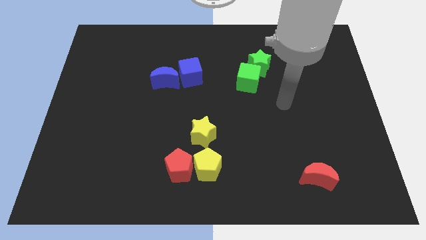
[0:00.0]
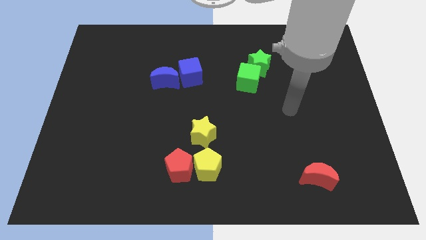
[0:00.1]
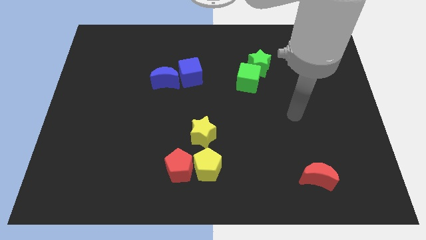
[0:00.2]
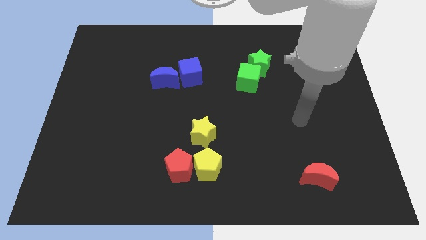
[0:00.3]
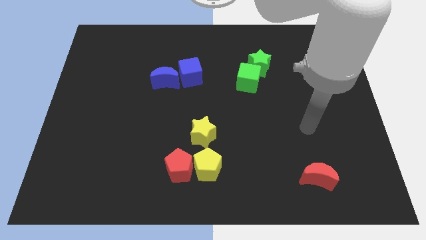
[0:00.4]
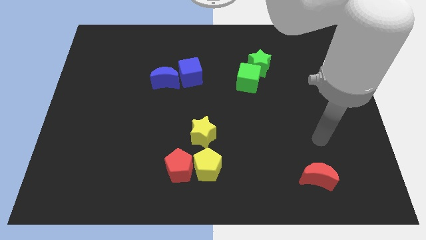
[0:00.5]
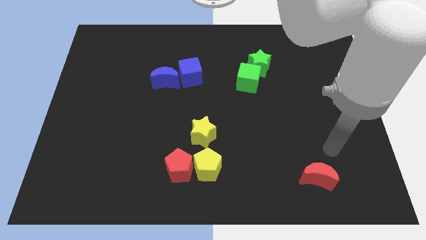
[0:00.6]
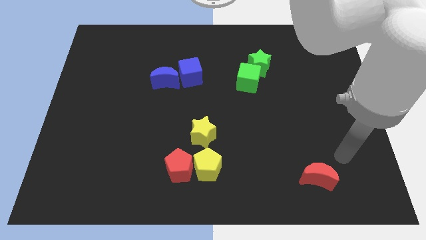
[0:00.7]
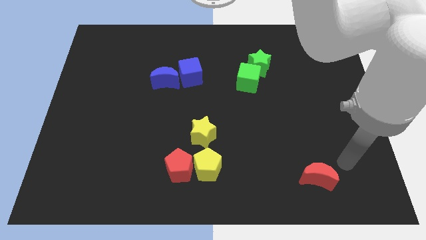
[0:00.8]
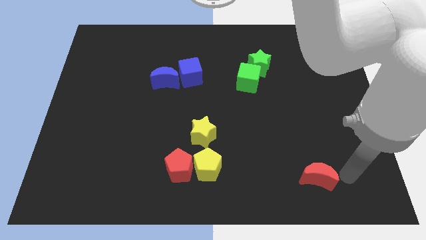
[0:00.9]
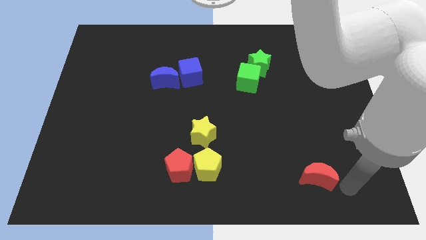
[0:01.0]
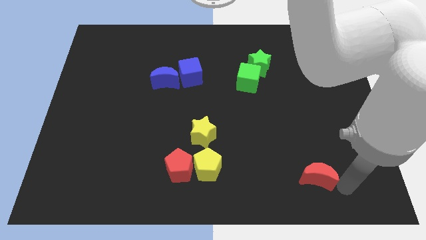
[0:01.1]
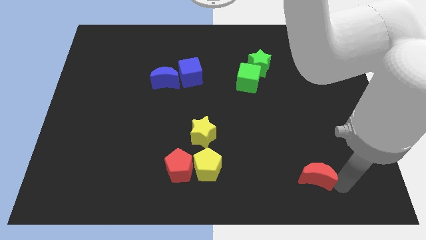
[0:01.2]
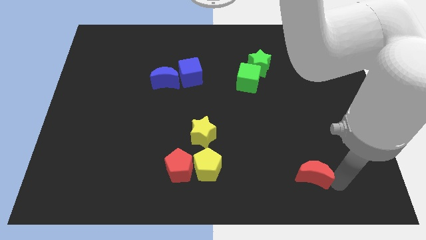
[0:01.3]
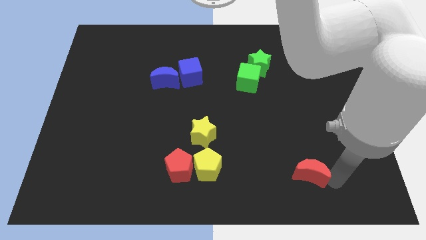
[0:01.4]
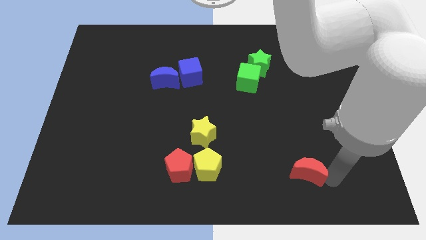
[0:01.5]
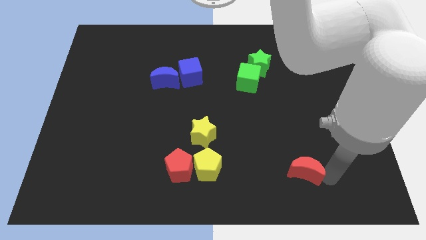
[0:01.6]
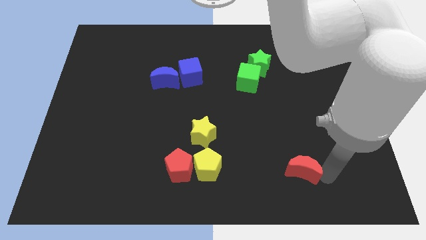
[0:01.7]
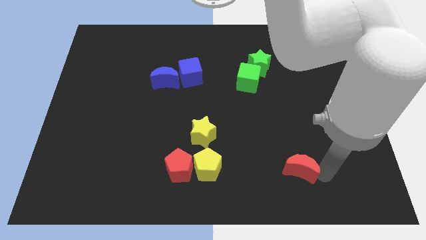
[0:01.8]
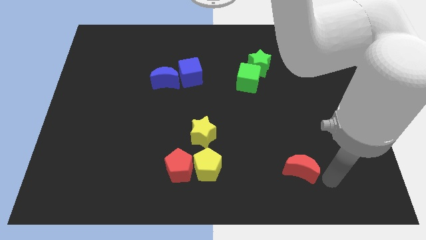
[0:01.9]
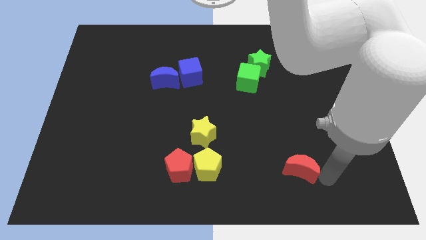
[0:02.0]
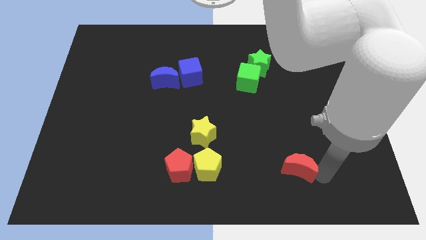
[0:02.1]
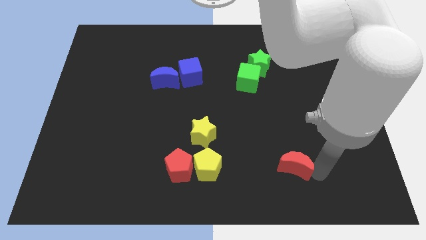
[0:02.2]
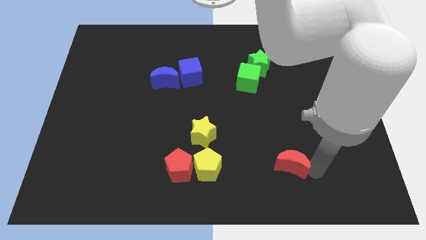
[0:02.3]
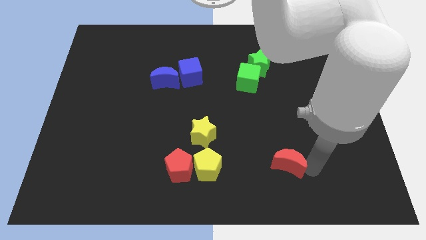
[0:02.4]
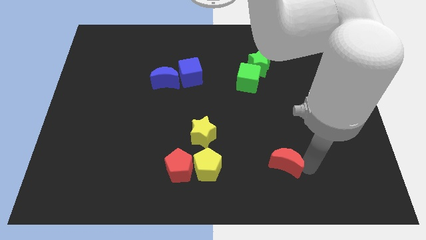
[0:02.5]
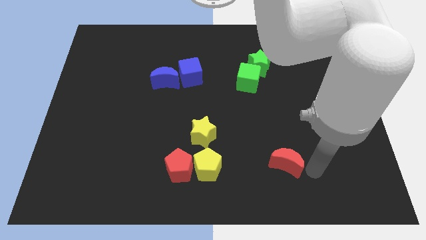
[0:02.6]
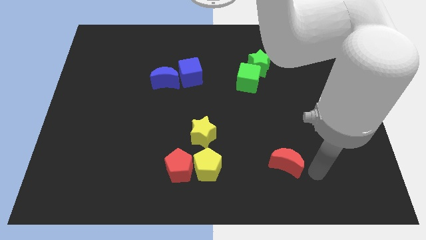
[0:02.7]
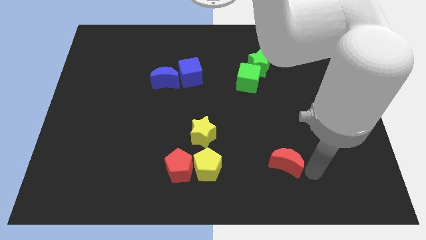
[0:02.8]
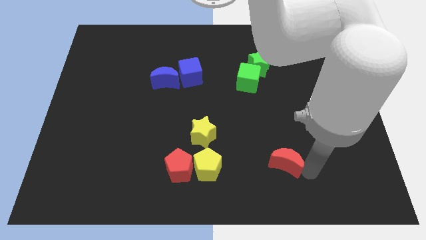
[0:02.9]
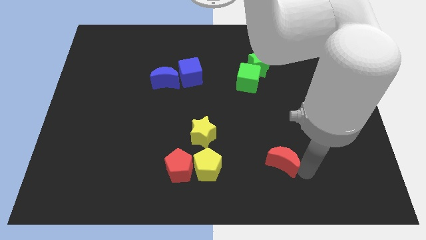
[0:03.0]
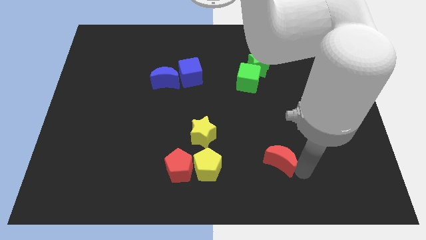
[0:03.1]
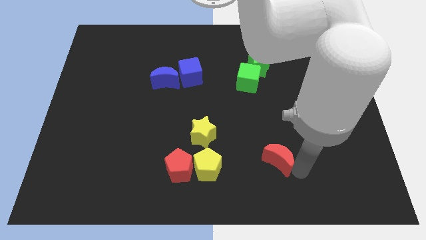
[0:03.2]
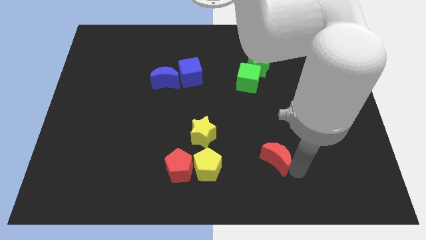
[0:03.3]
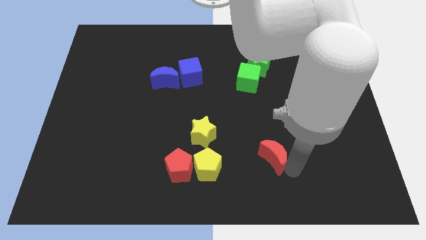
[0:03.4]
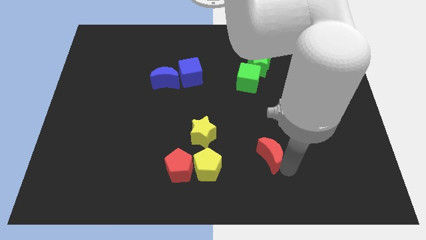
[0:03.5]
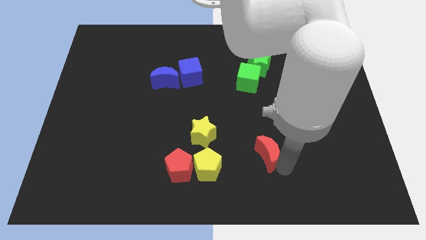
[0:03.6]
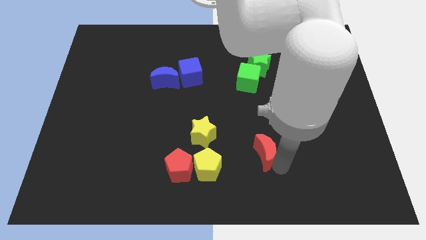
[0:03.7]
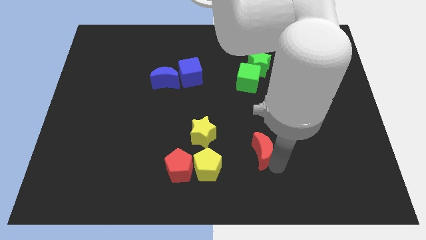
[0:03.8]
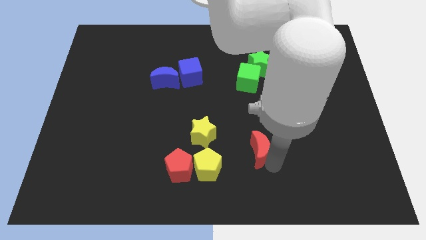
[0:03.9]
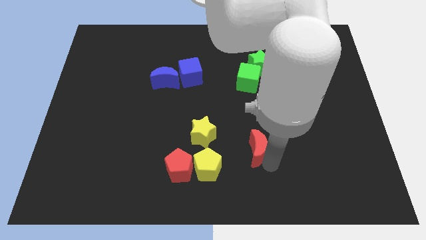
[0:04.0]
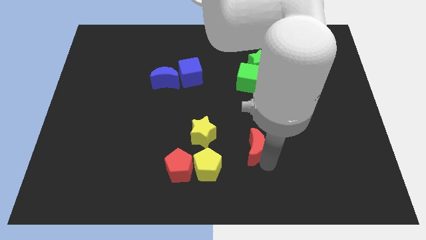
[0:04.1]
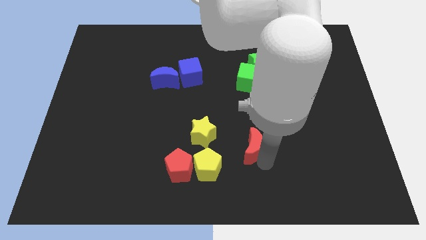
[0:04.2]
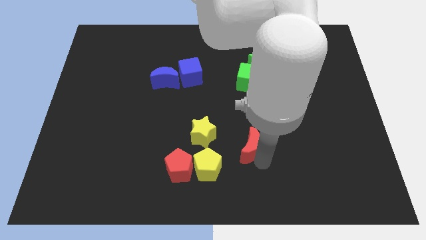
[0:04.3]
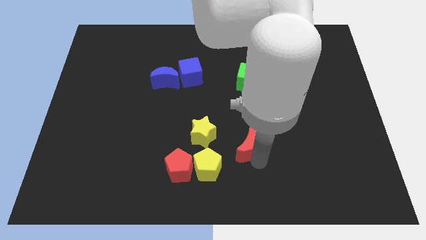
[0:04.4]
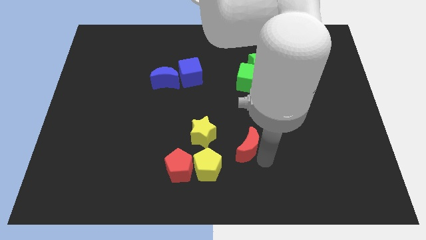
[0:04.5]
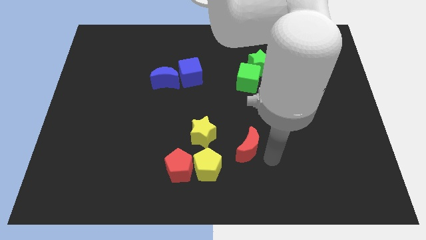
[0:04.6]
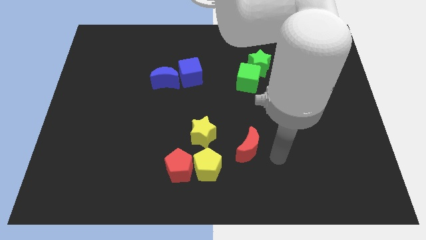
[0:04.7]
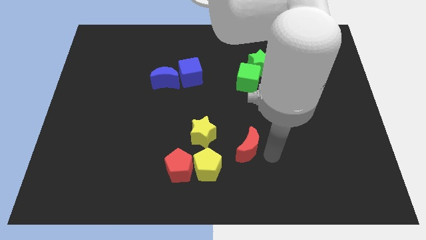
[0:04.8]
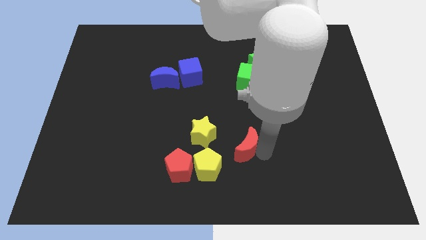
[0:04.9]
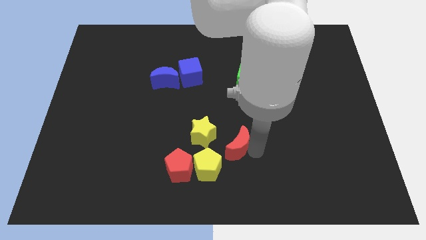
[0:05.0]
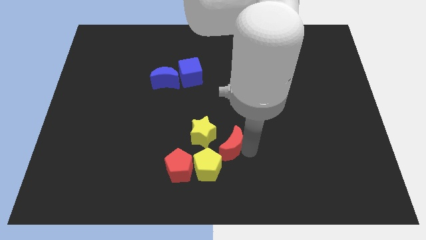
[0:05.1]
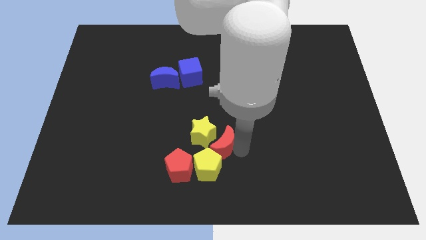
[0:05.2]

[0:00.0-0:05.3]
move the red moon next to the yellow star
